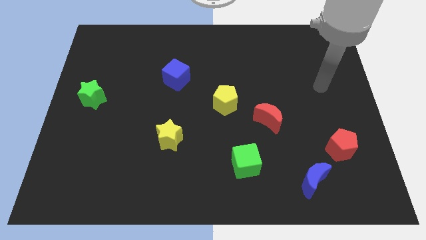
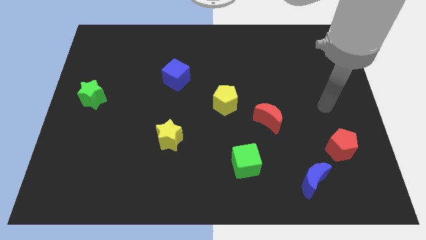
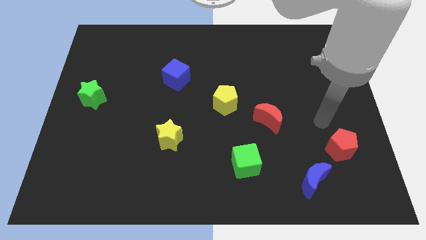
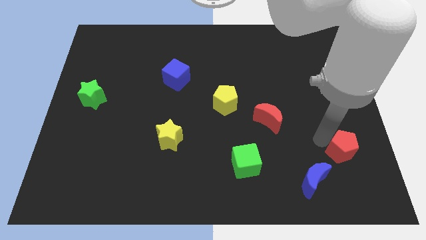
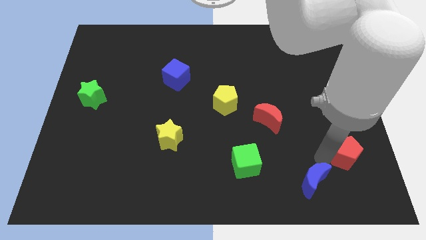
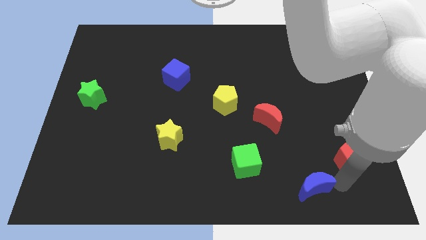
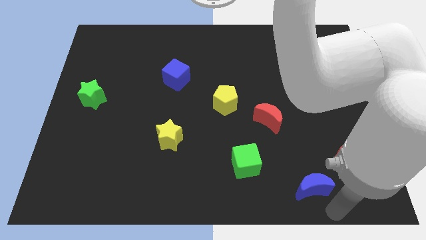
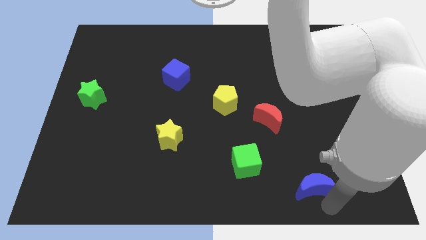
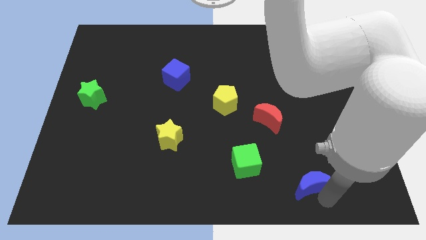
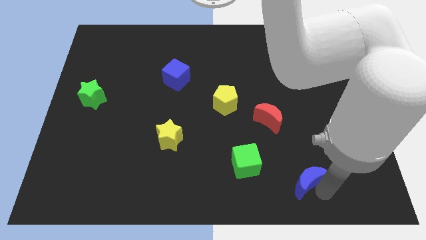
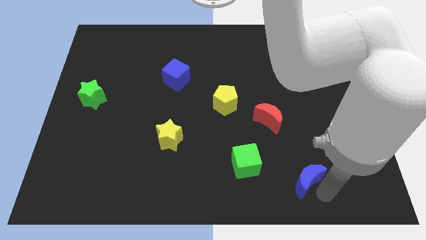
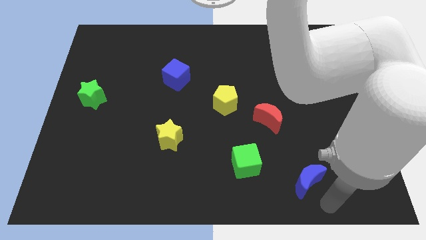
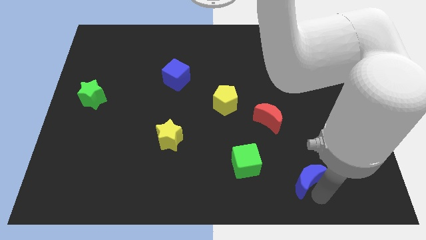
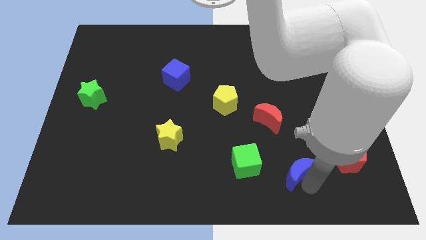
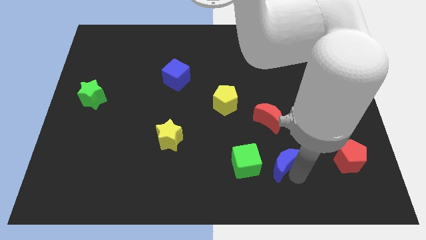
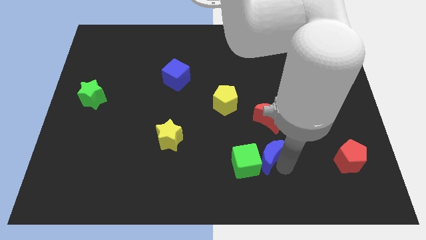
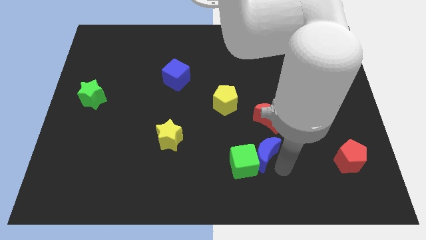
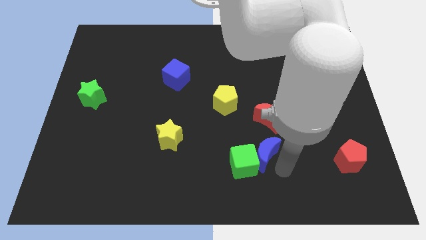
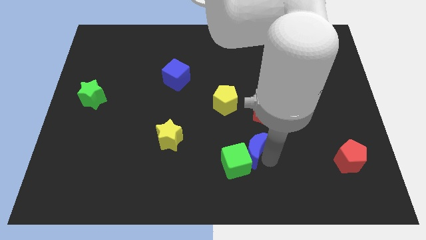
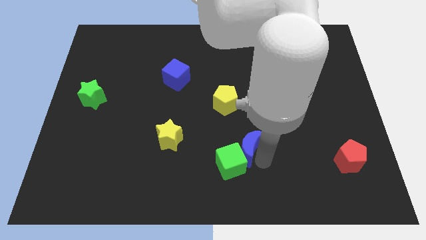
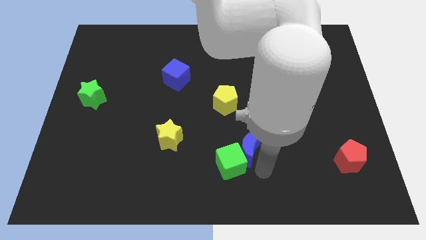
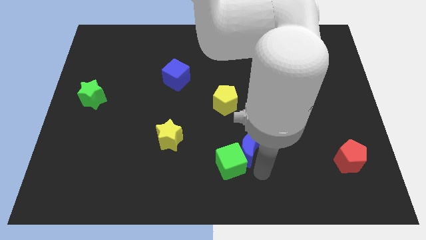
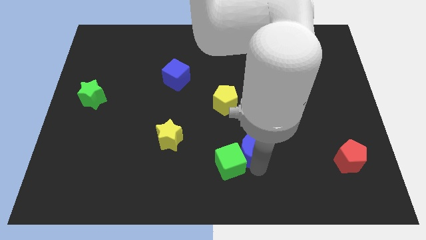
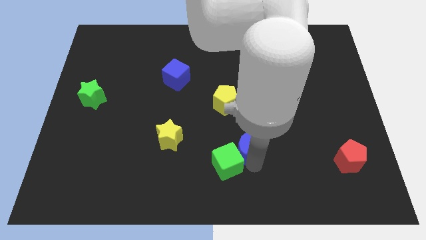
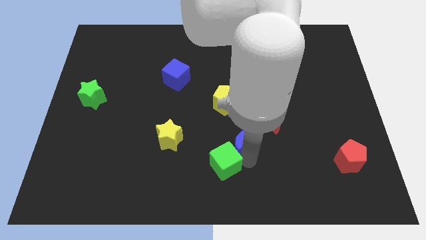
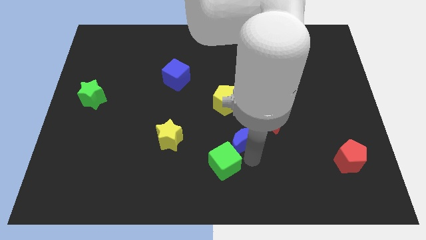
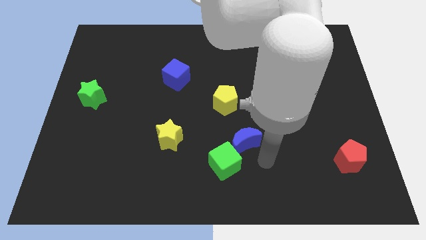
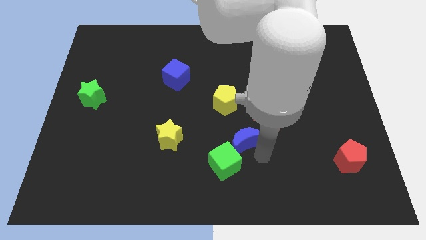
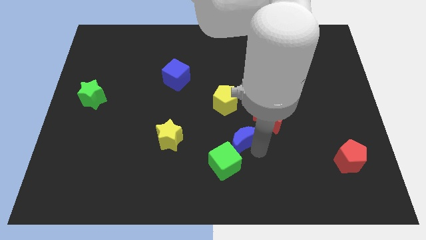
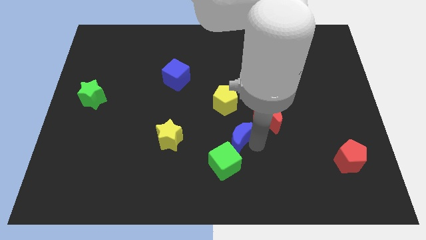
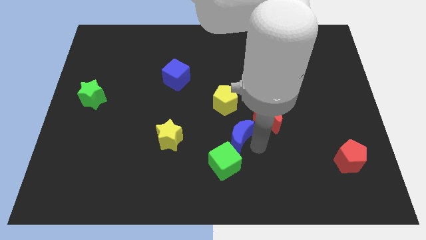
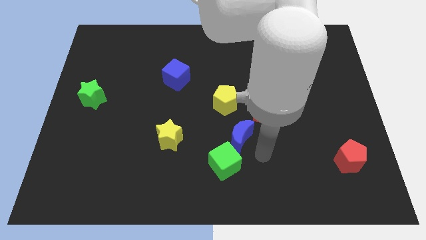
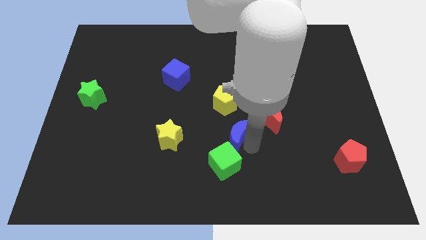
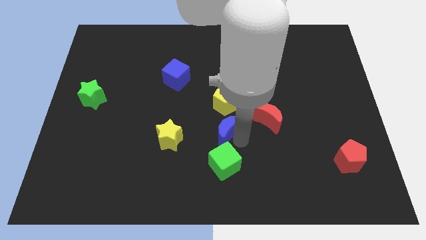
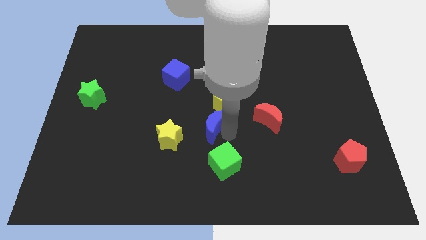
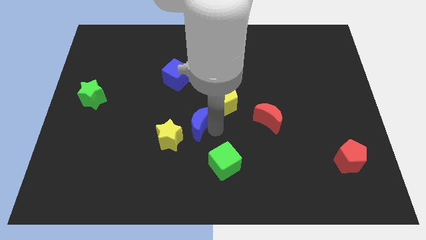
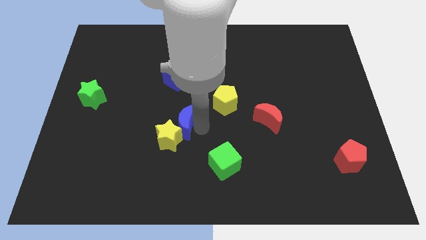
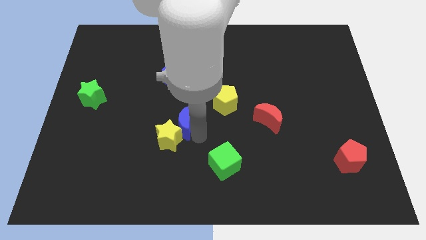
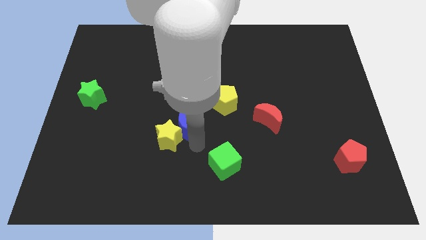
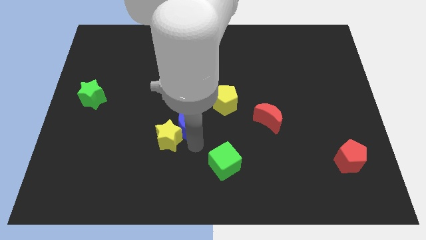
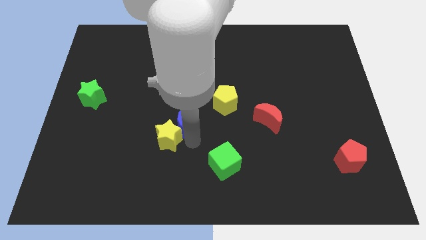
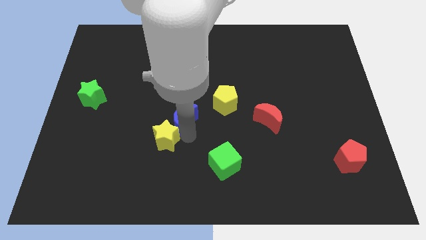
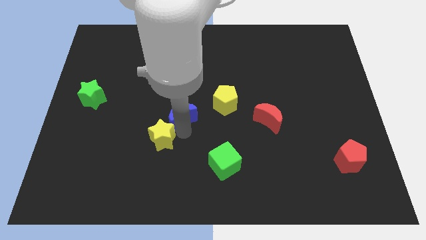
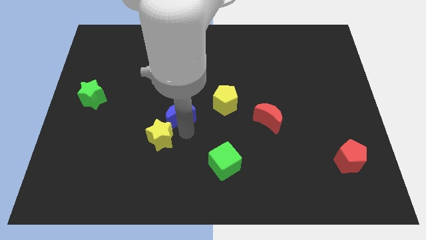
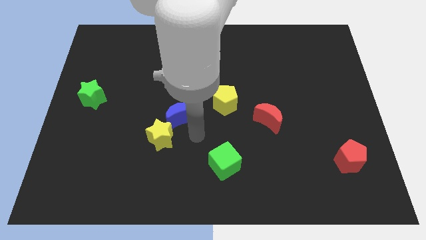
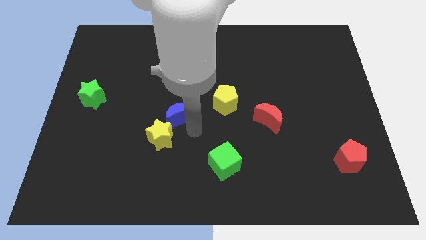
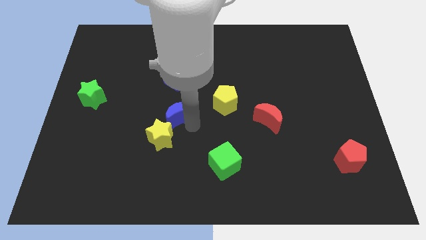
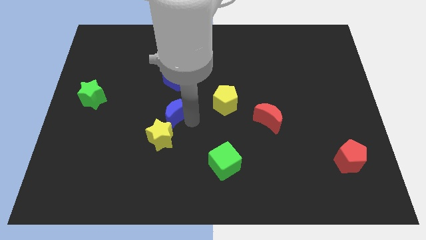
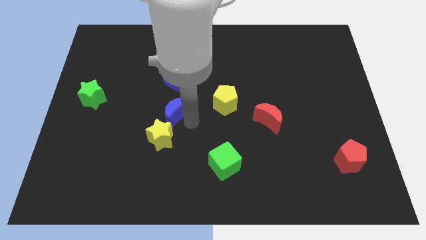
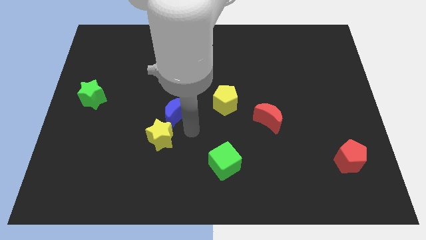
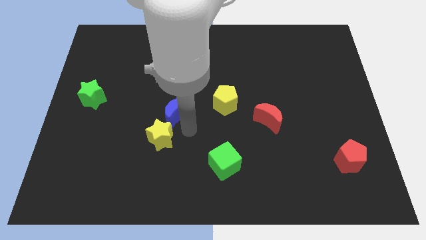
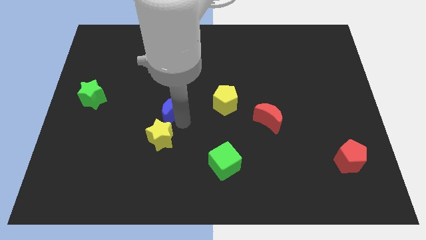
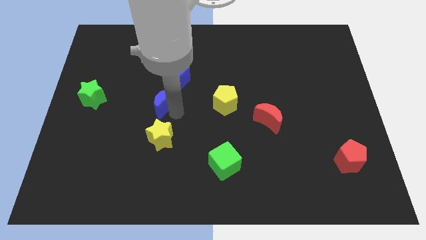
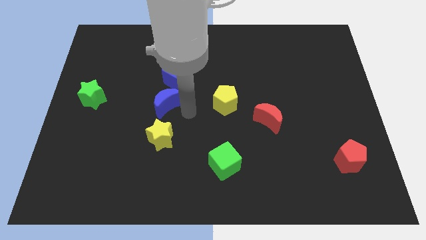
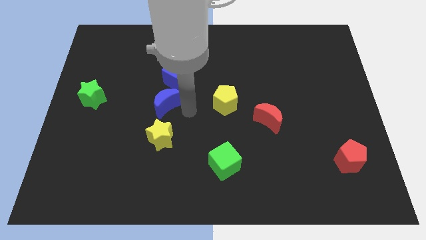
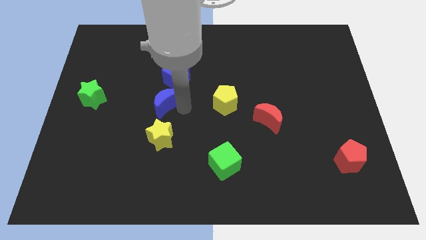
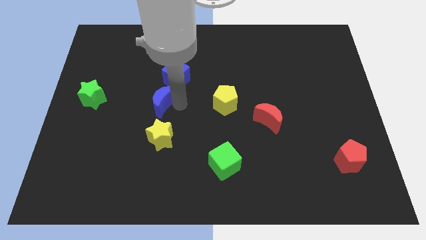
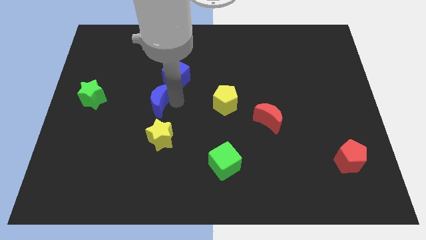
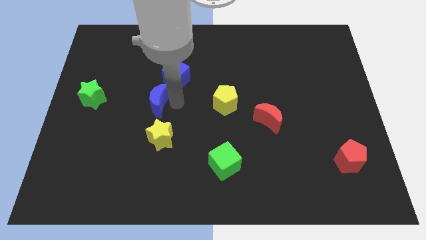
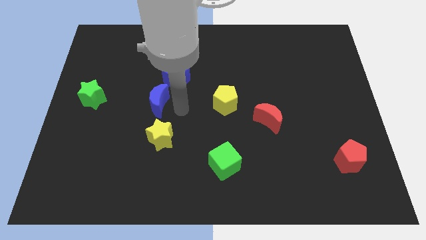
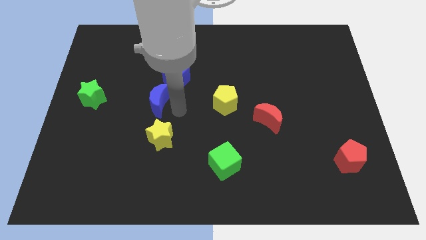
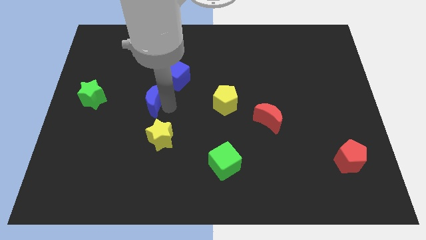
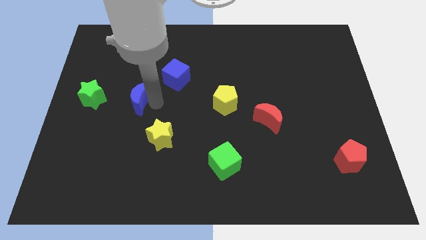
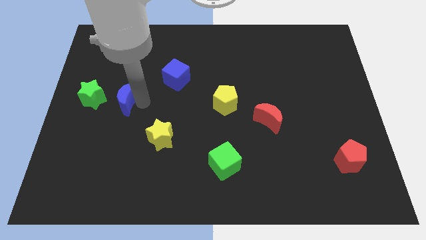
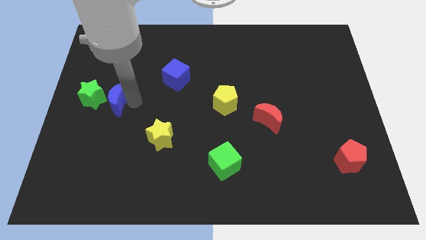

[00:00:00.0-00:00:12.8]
move the blue moon close to the green star

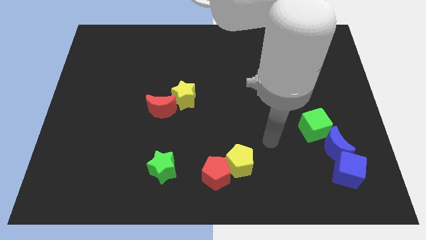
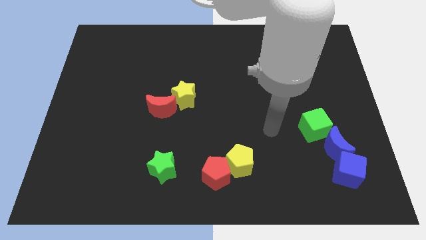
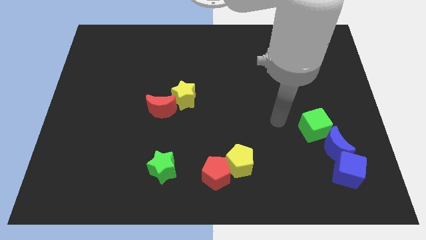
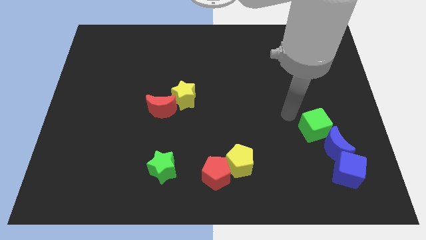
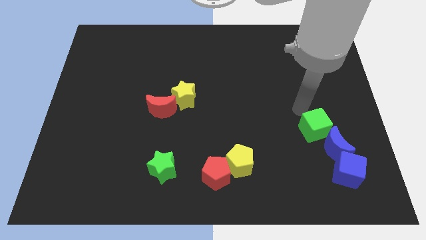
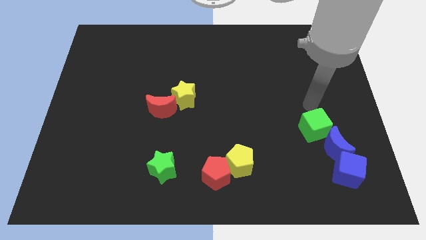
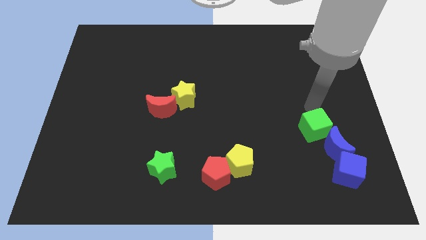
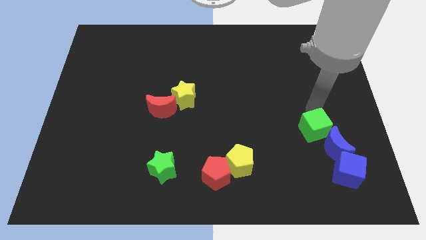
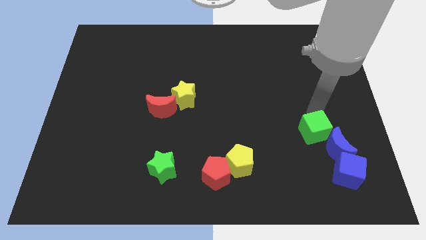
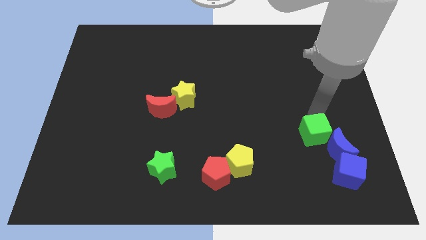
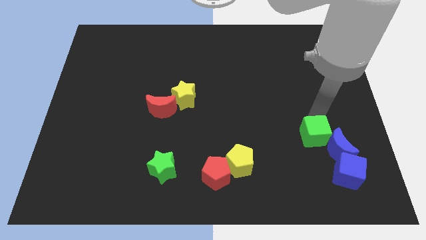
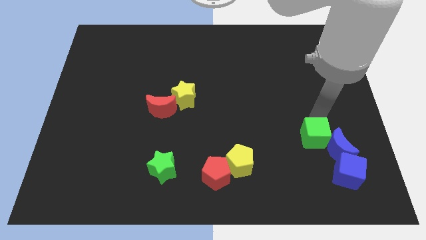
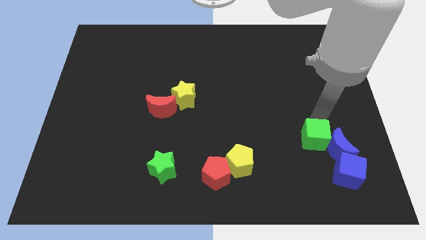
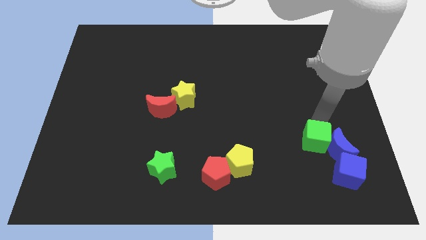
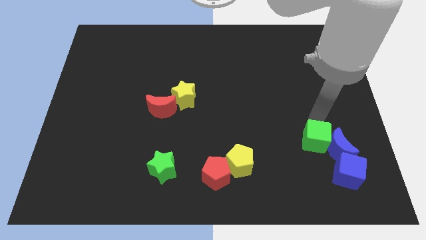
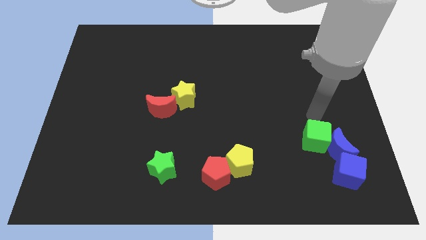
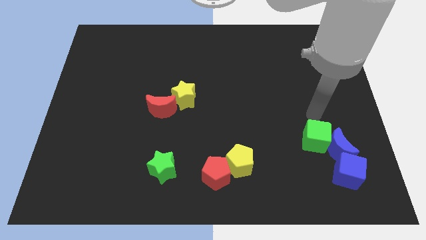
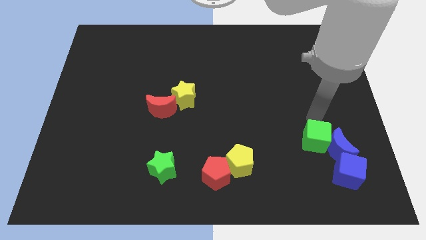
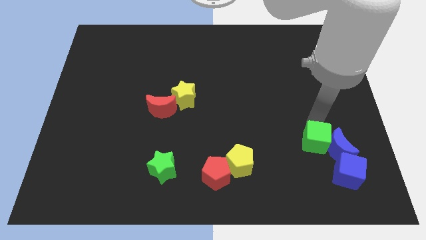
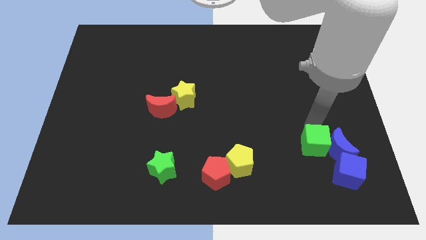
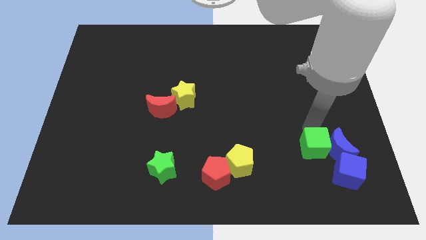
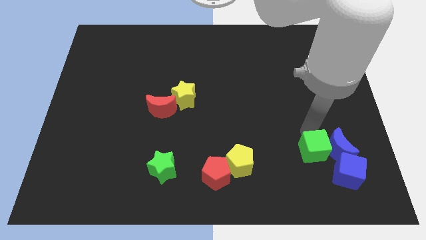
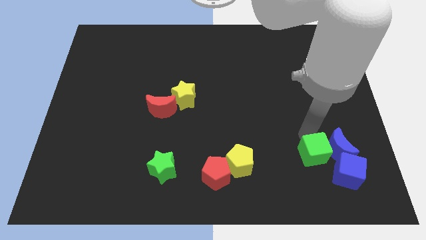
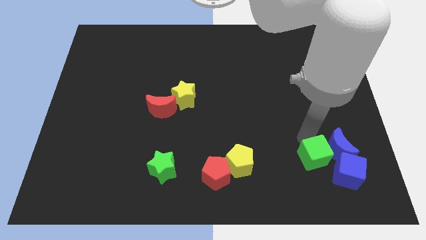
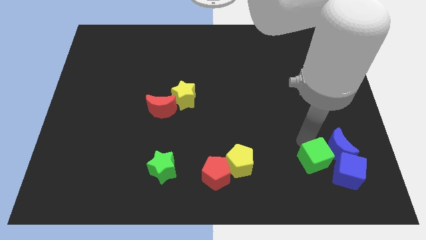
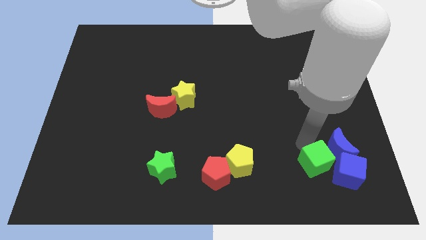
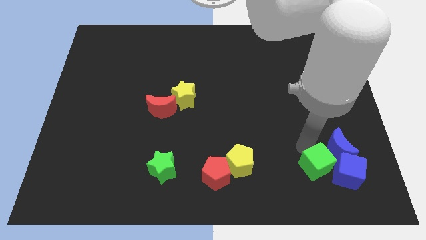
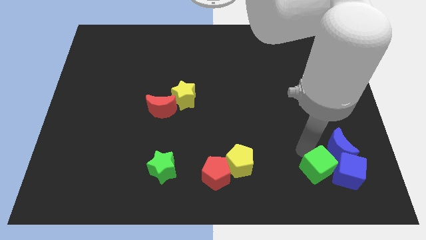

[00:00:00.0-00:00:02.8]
slide the green cube towards the blue cube
